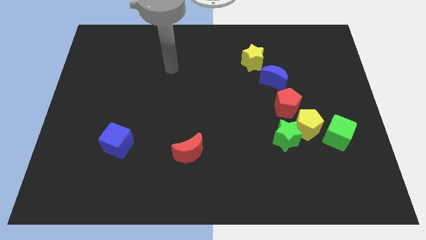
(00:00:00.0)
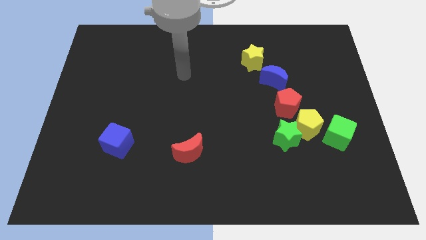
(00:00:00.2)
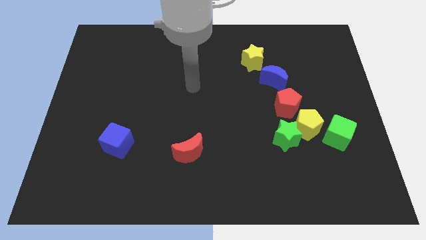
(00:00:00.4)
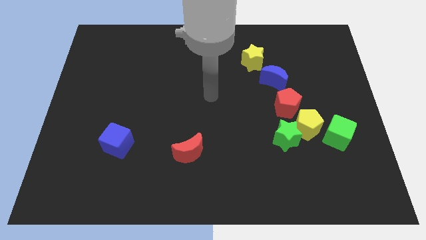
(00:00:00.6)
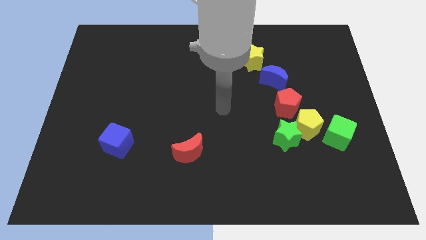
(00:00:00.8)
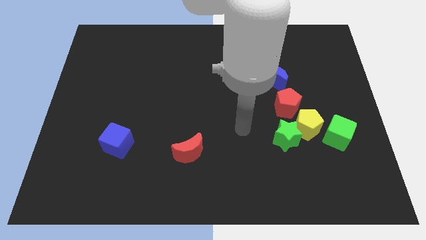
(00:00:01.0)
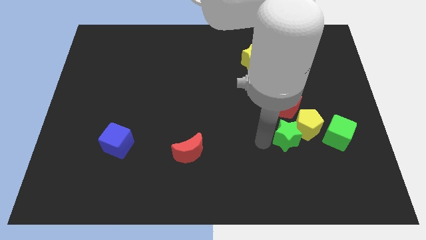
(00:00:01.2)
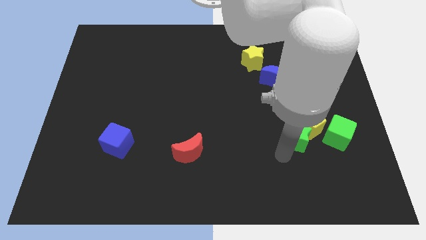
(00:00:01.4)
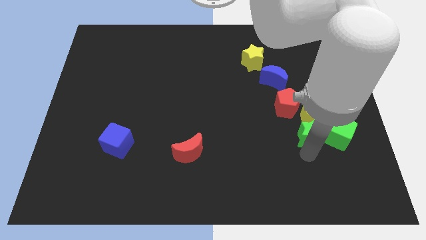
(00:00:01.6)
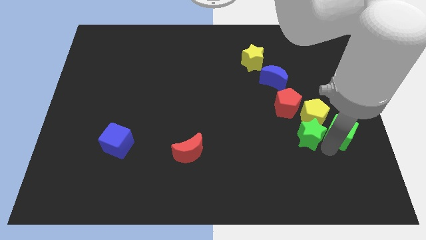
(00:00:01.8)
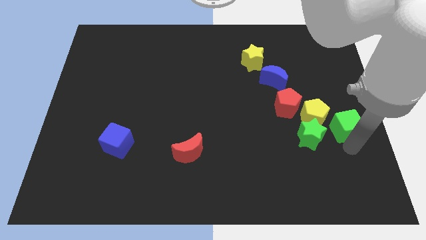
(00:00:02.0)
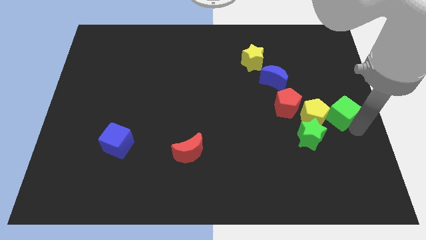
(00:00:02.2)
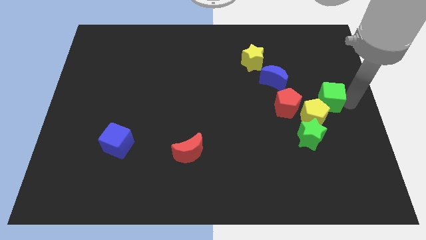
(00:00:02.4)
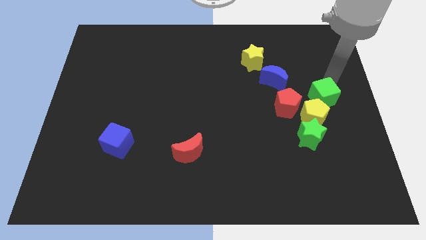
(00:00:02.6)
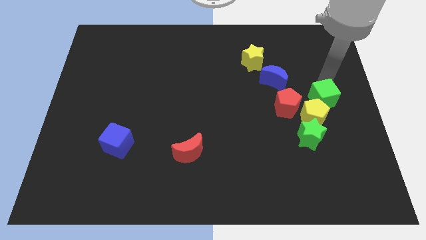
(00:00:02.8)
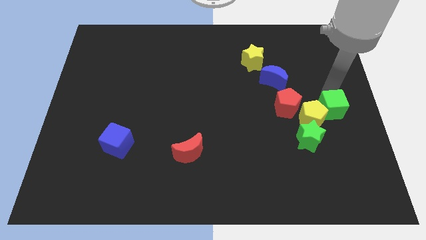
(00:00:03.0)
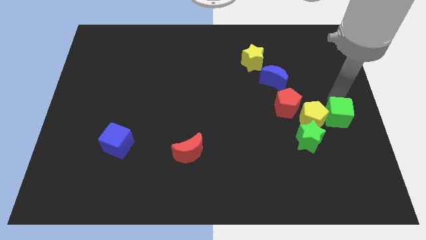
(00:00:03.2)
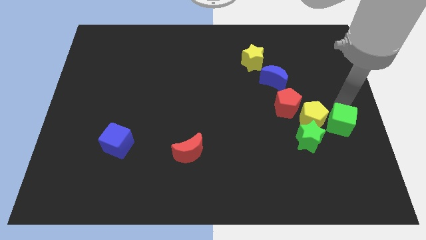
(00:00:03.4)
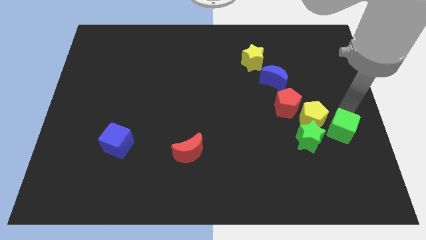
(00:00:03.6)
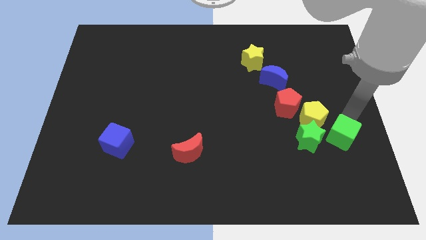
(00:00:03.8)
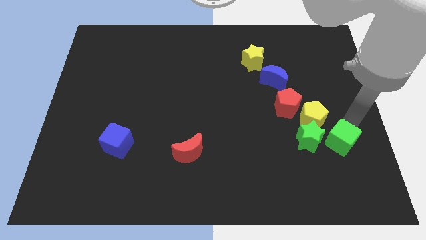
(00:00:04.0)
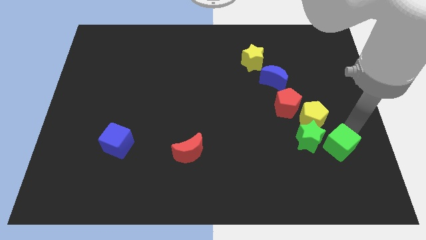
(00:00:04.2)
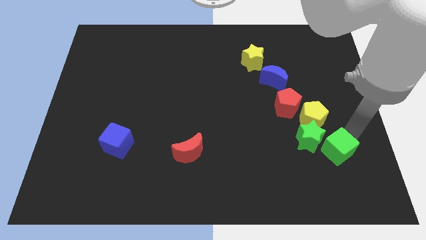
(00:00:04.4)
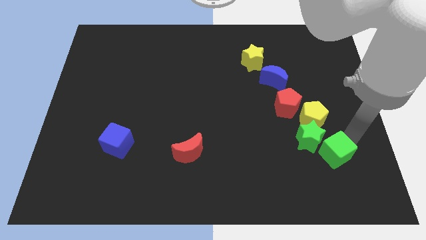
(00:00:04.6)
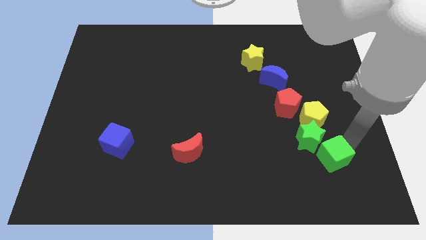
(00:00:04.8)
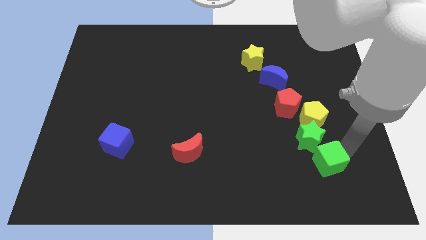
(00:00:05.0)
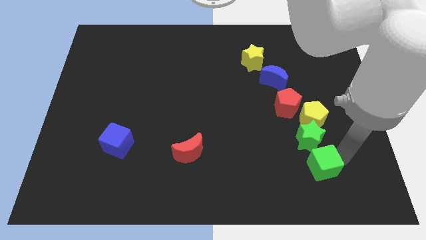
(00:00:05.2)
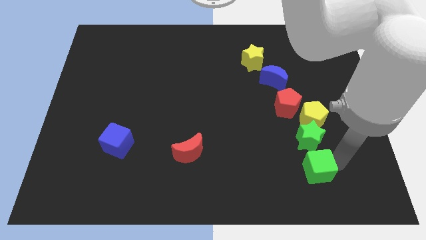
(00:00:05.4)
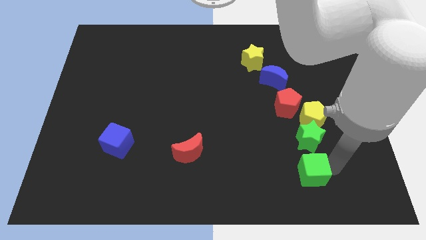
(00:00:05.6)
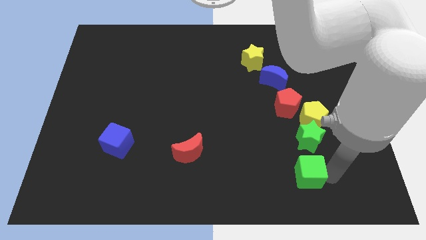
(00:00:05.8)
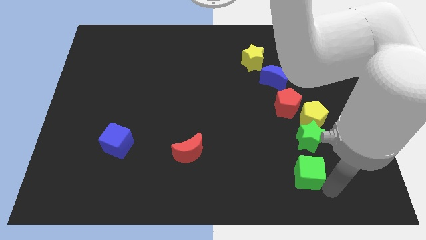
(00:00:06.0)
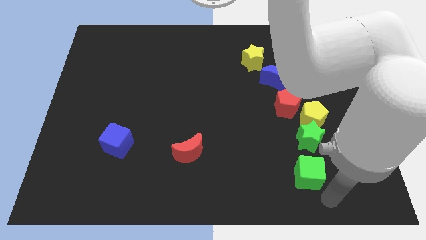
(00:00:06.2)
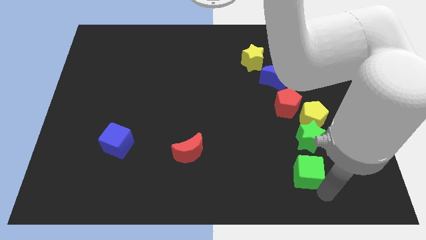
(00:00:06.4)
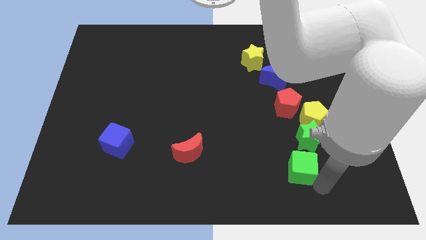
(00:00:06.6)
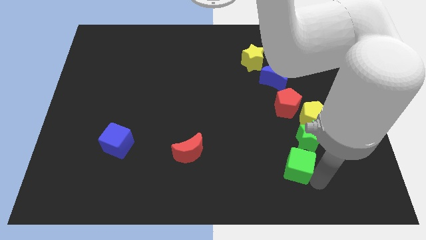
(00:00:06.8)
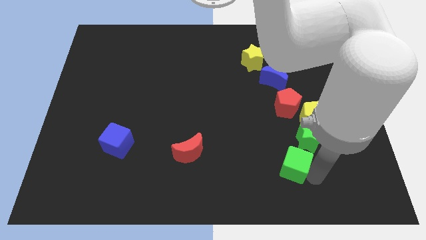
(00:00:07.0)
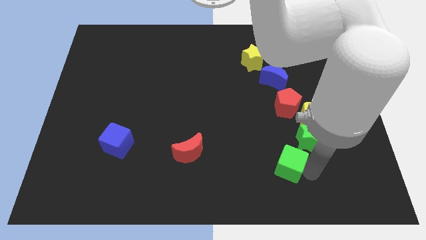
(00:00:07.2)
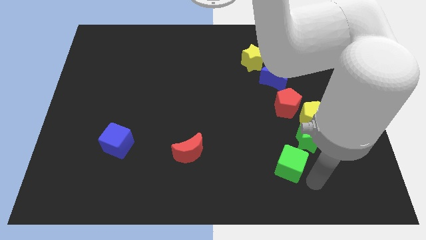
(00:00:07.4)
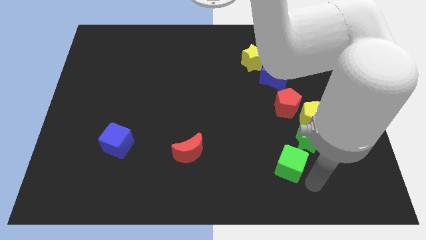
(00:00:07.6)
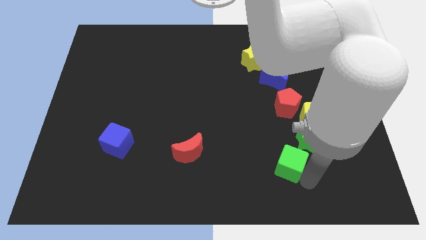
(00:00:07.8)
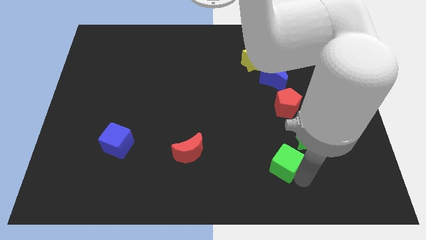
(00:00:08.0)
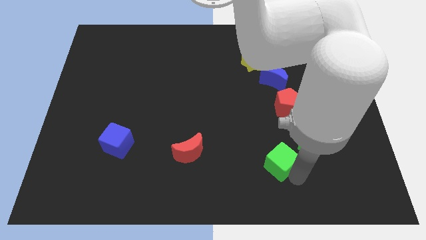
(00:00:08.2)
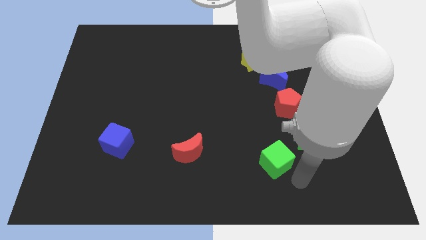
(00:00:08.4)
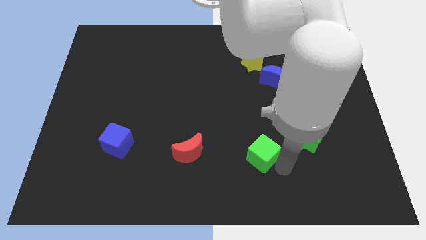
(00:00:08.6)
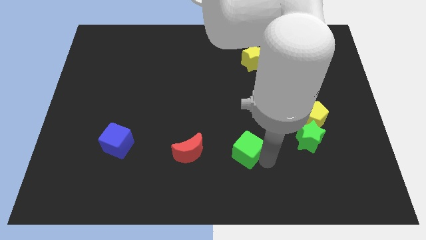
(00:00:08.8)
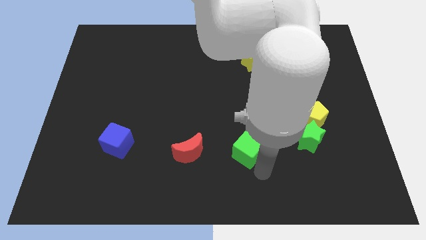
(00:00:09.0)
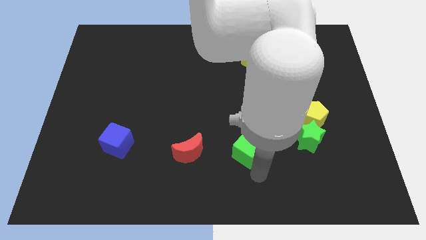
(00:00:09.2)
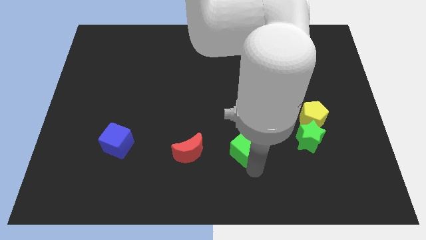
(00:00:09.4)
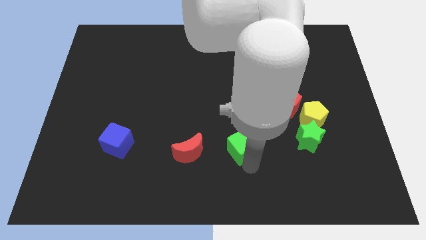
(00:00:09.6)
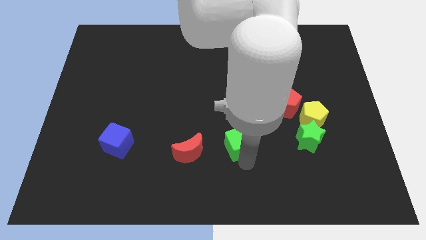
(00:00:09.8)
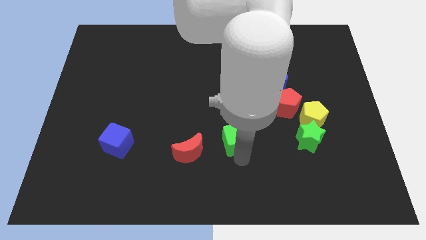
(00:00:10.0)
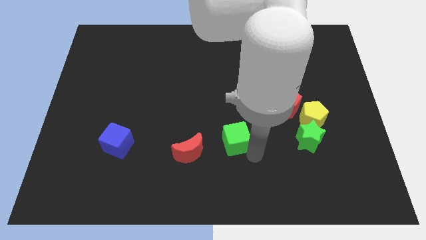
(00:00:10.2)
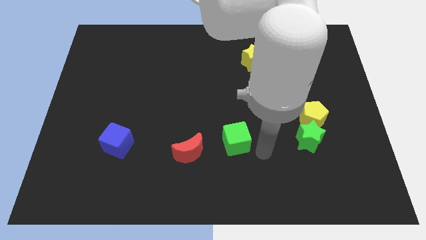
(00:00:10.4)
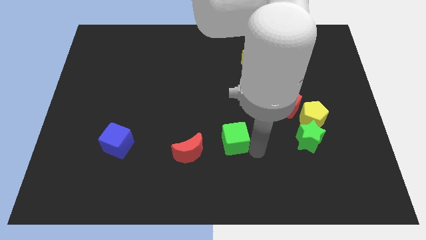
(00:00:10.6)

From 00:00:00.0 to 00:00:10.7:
move the green cube diagonally up and to the right of the red moon

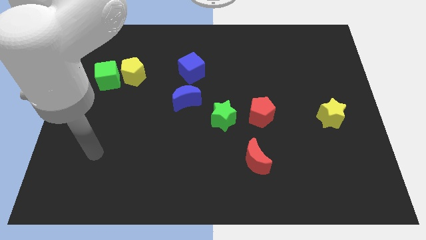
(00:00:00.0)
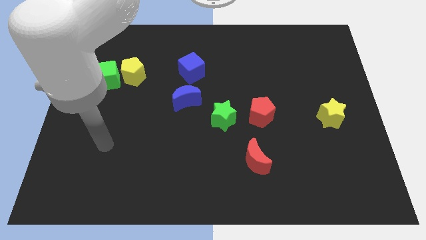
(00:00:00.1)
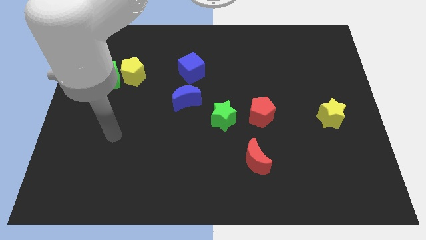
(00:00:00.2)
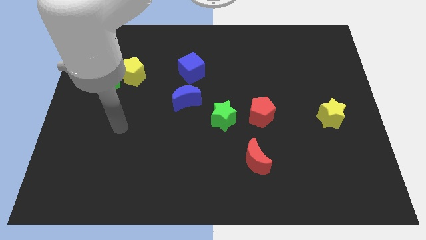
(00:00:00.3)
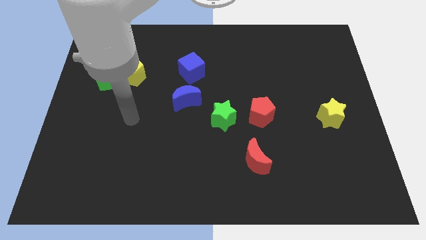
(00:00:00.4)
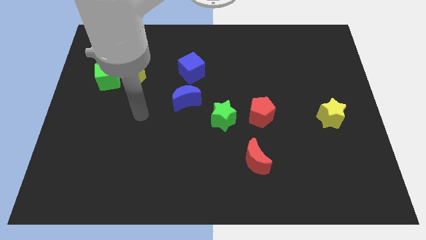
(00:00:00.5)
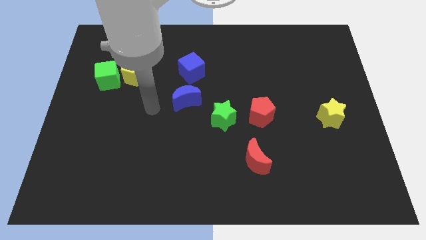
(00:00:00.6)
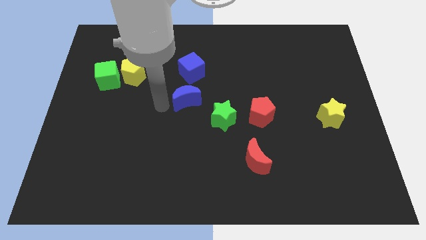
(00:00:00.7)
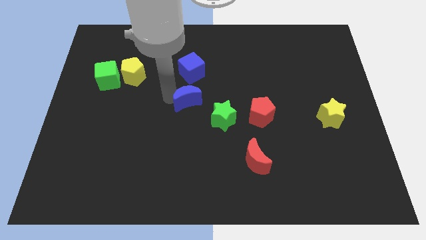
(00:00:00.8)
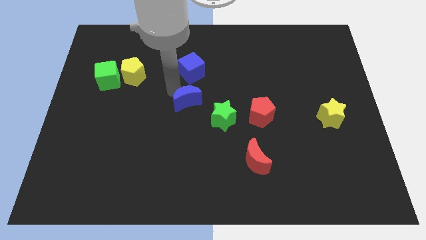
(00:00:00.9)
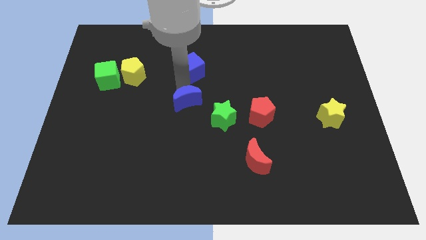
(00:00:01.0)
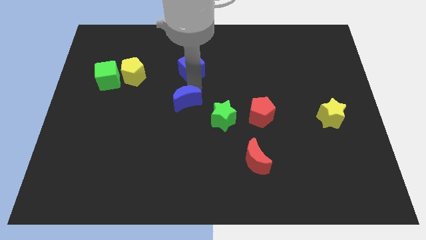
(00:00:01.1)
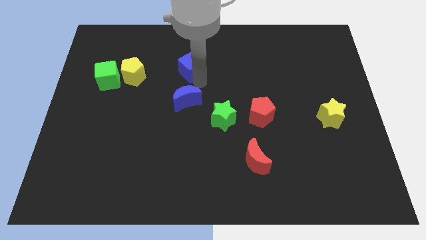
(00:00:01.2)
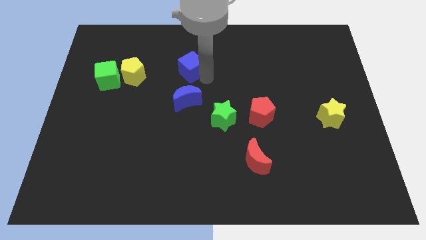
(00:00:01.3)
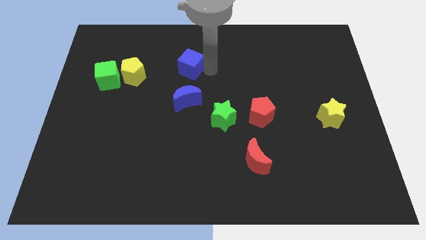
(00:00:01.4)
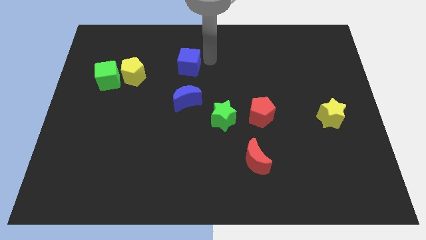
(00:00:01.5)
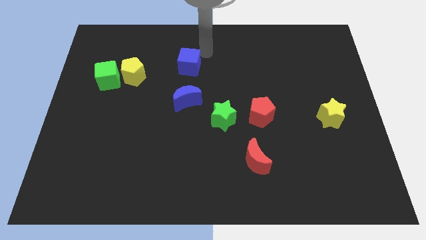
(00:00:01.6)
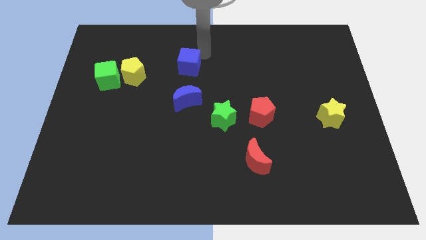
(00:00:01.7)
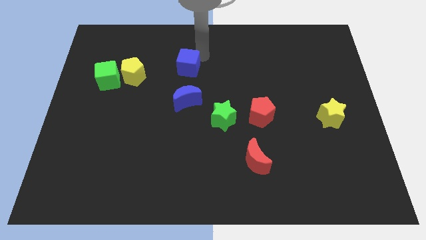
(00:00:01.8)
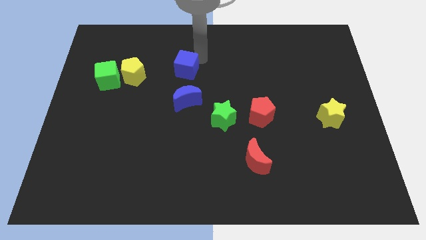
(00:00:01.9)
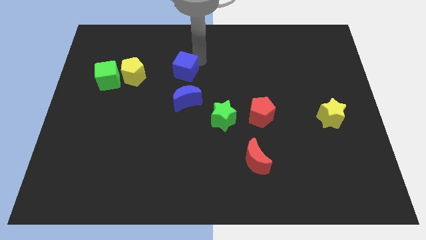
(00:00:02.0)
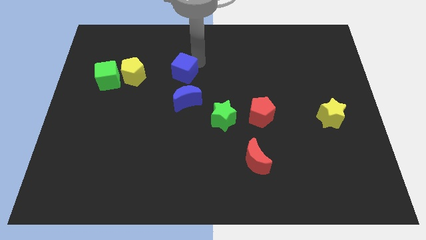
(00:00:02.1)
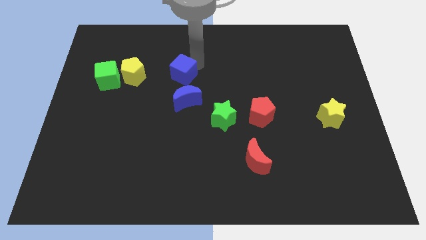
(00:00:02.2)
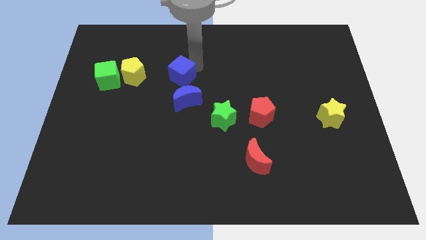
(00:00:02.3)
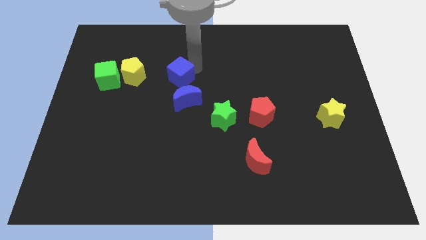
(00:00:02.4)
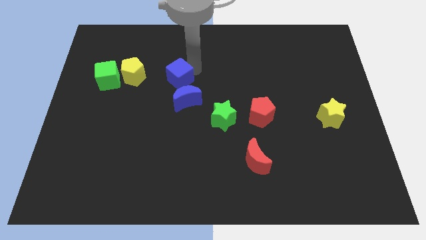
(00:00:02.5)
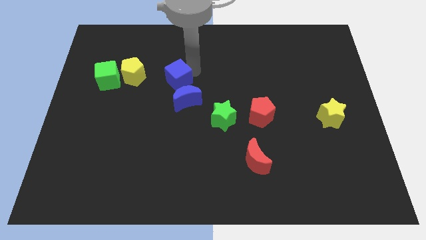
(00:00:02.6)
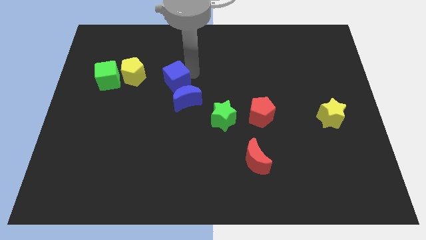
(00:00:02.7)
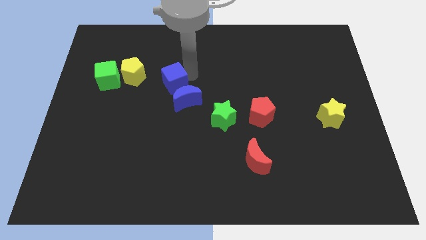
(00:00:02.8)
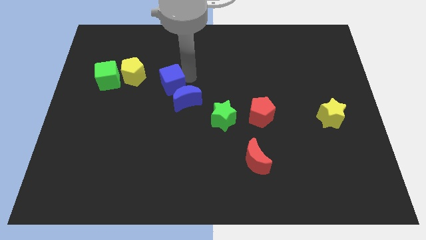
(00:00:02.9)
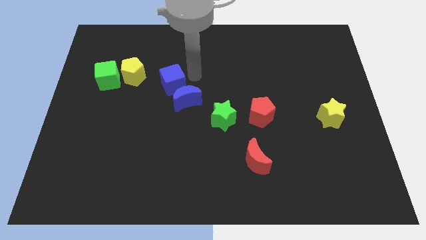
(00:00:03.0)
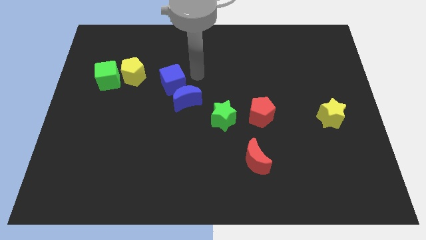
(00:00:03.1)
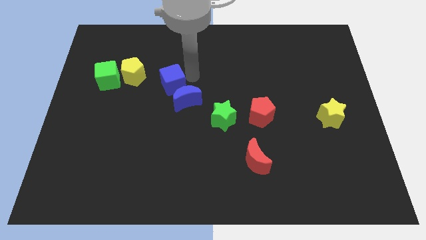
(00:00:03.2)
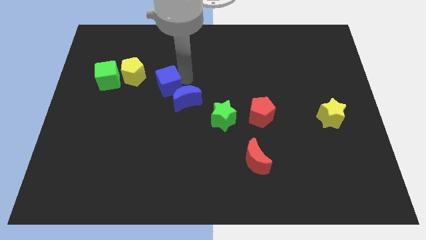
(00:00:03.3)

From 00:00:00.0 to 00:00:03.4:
put the blue cube to the bottom right side of the yellow pentagon
